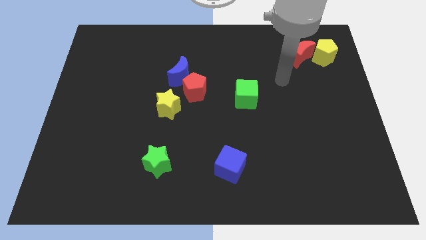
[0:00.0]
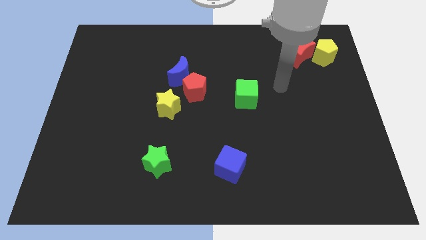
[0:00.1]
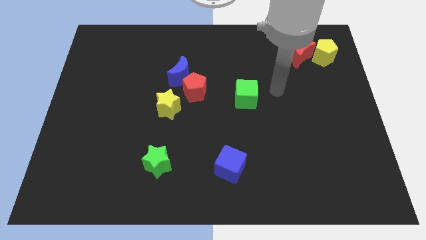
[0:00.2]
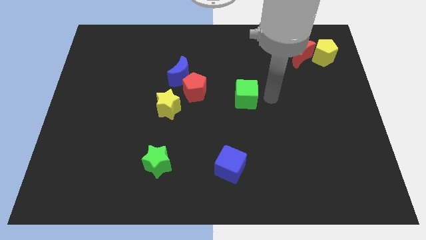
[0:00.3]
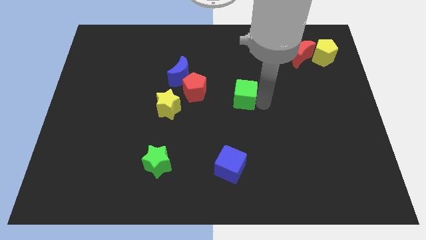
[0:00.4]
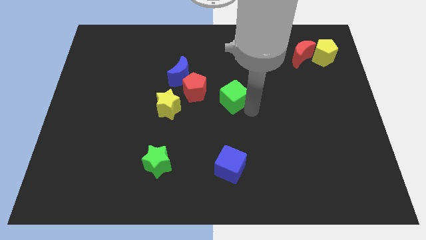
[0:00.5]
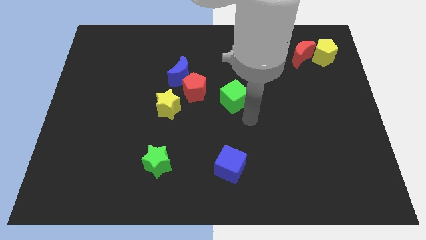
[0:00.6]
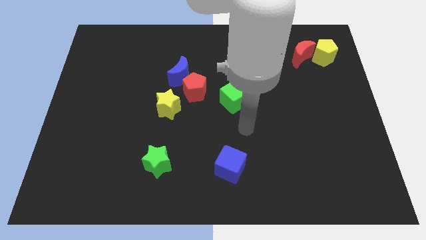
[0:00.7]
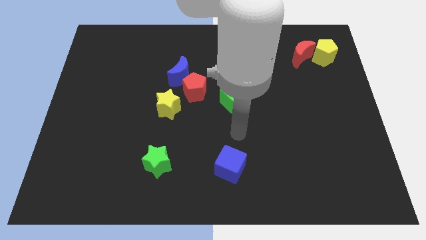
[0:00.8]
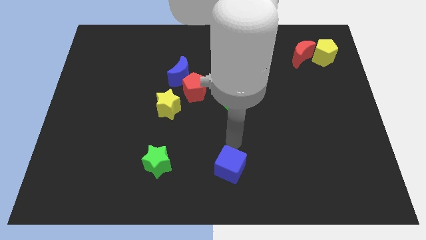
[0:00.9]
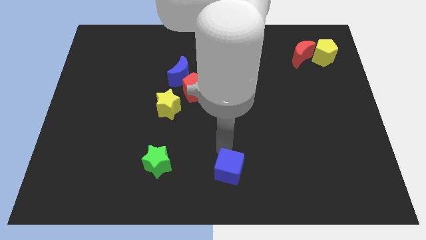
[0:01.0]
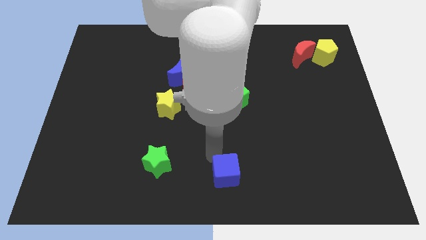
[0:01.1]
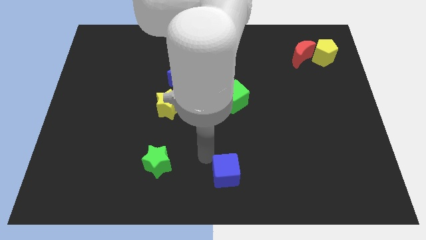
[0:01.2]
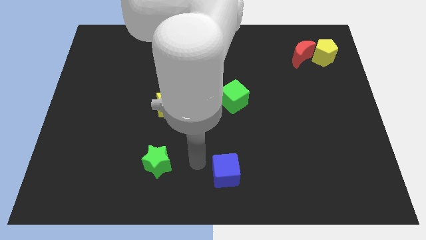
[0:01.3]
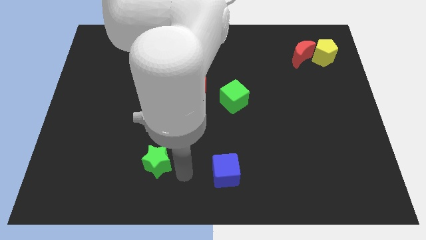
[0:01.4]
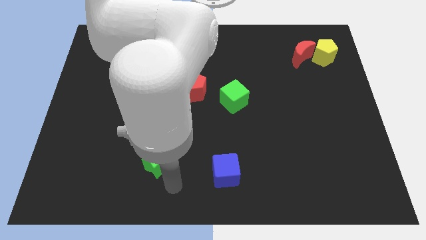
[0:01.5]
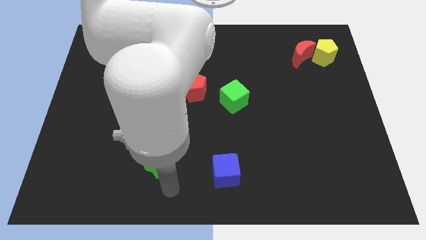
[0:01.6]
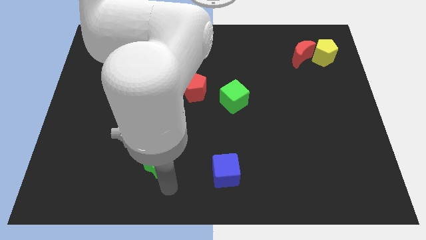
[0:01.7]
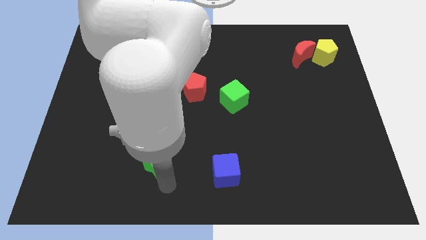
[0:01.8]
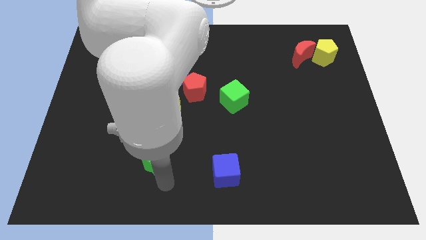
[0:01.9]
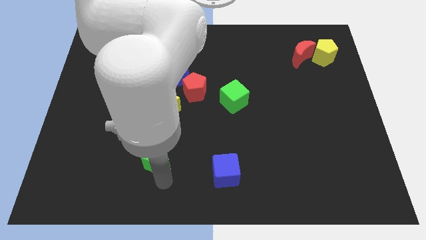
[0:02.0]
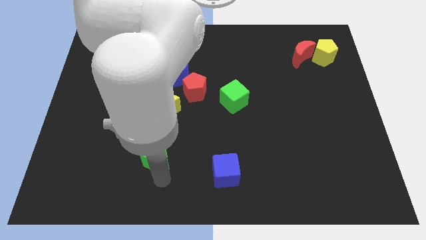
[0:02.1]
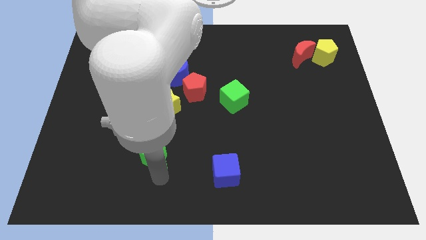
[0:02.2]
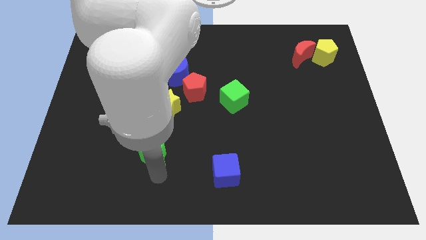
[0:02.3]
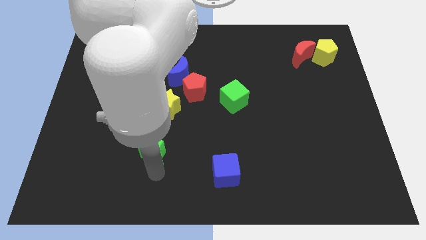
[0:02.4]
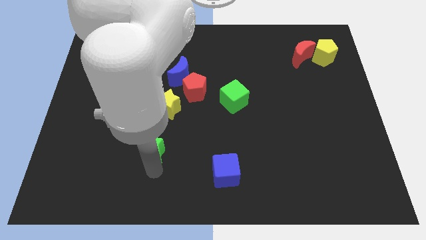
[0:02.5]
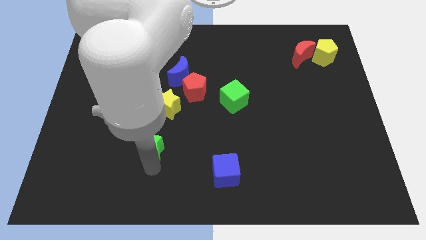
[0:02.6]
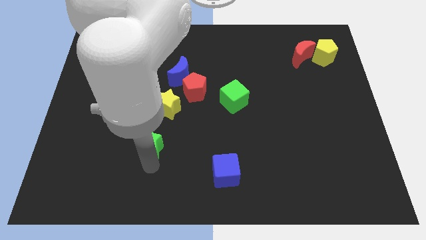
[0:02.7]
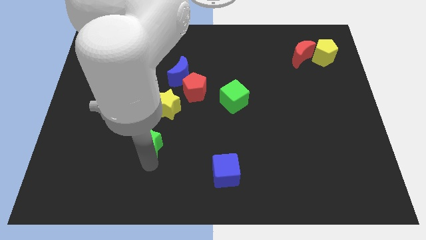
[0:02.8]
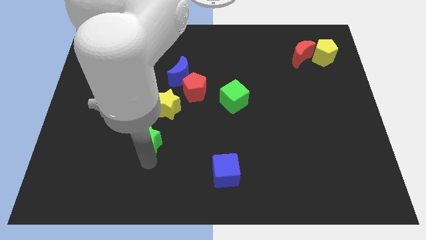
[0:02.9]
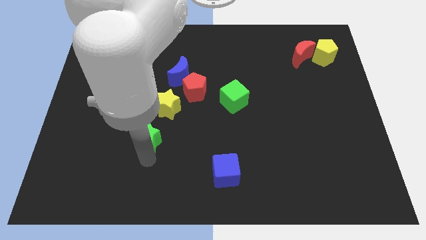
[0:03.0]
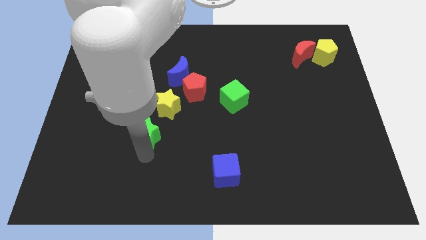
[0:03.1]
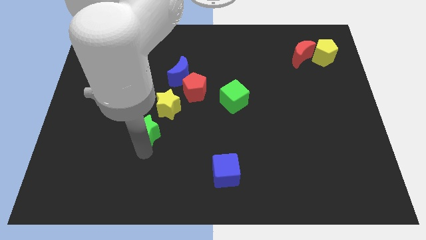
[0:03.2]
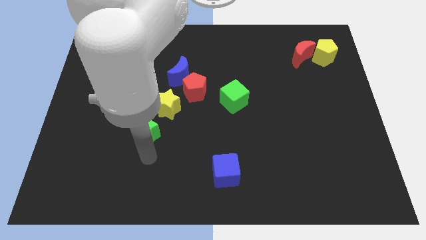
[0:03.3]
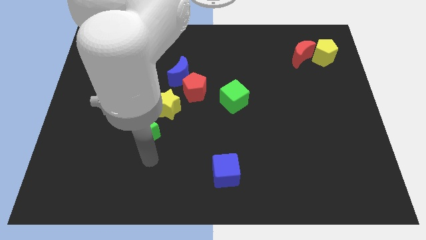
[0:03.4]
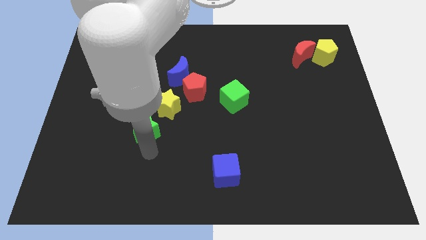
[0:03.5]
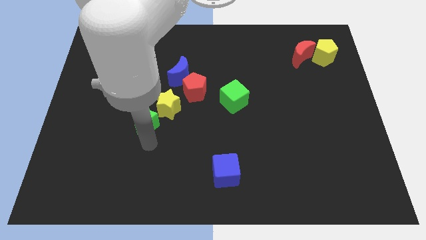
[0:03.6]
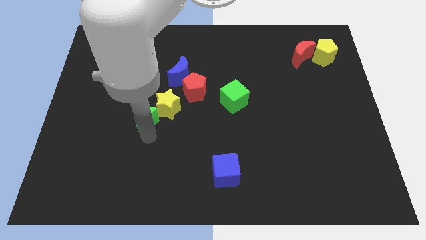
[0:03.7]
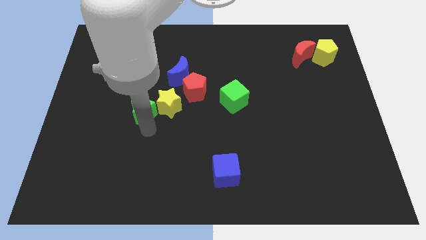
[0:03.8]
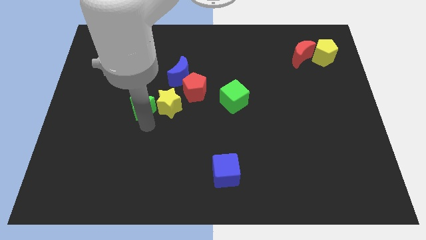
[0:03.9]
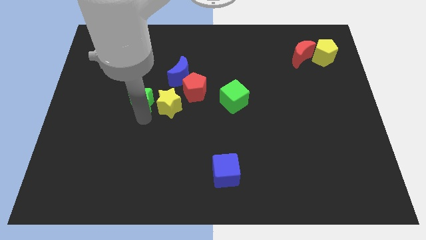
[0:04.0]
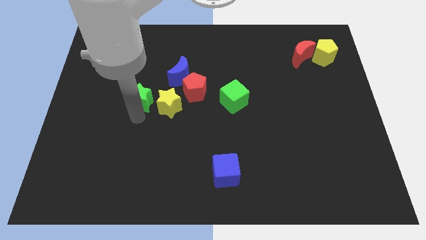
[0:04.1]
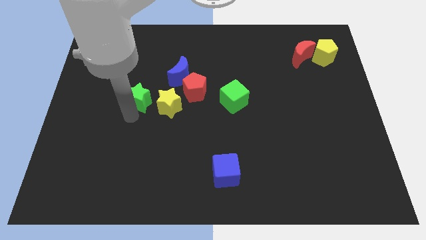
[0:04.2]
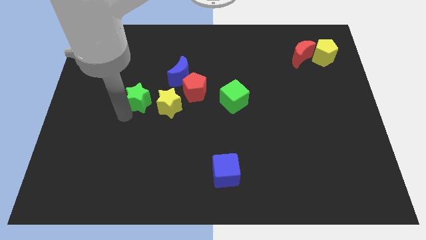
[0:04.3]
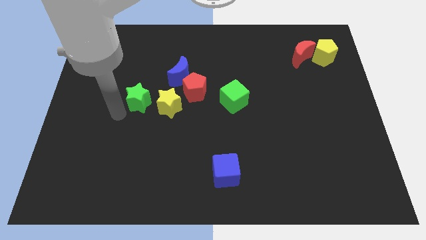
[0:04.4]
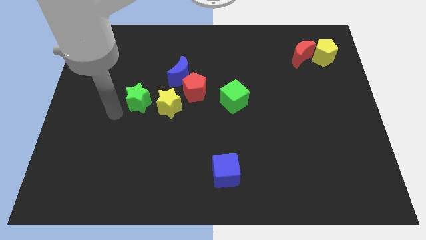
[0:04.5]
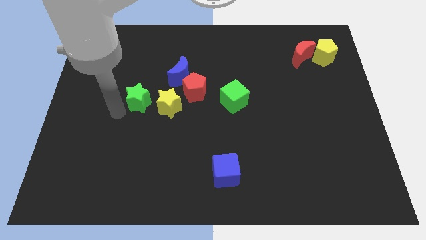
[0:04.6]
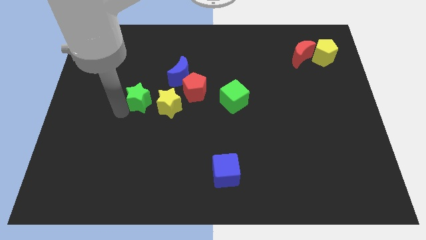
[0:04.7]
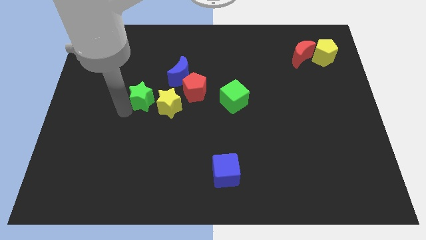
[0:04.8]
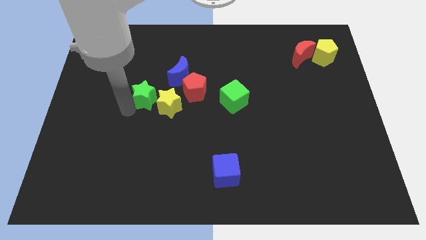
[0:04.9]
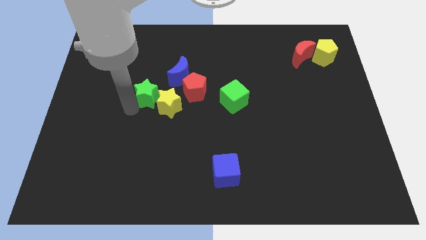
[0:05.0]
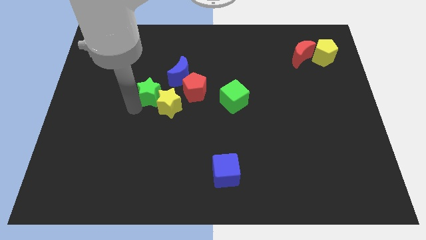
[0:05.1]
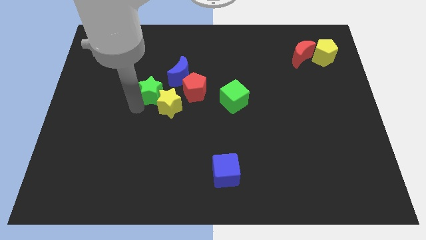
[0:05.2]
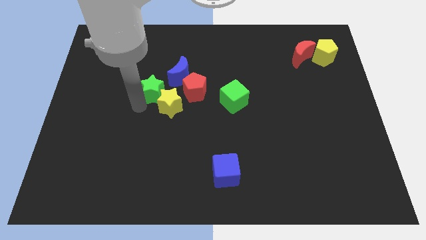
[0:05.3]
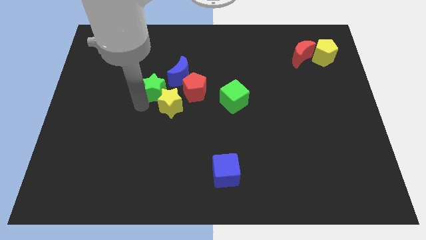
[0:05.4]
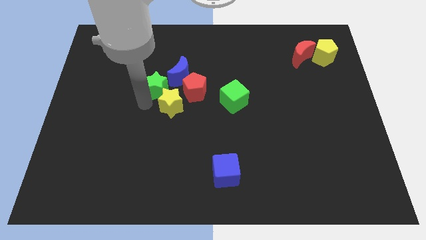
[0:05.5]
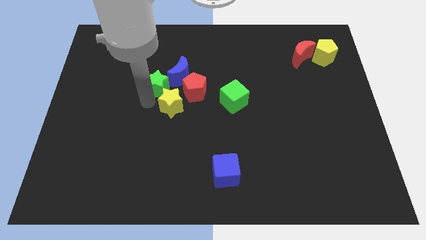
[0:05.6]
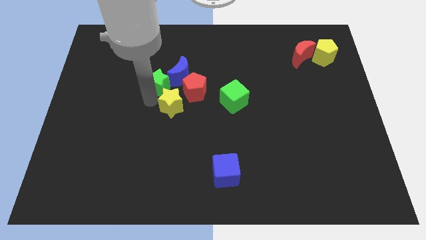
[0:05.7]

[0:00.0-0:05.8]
move the green star towards the blue moon

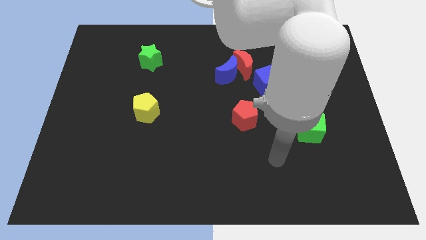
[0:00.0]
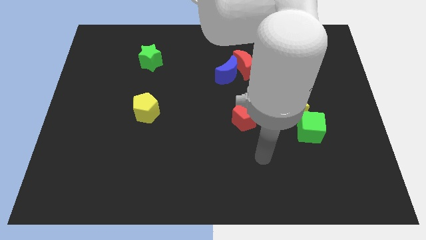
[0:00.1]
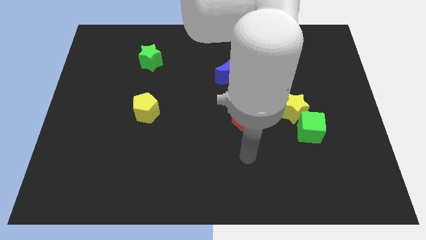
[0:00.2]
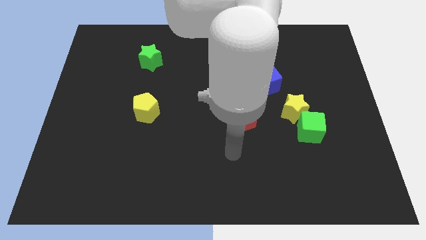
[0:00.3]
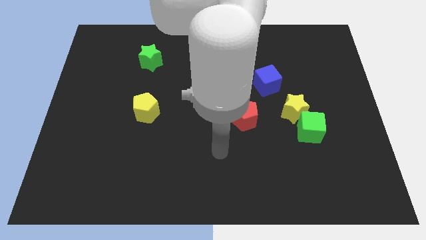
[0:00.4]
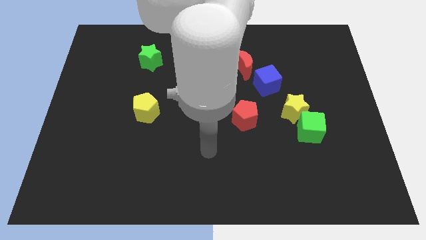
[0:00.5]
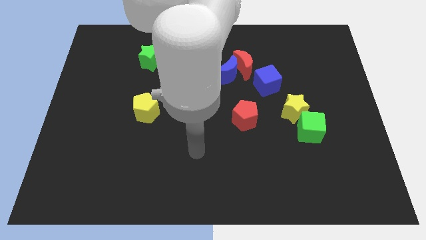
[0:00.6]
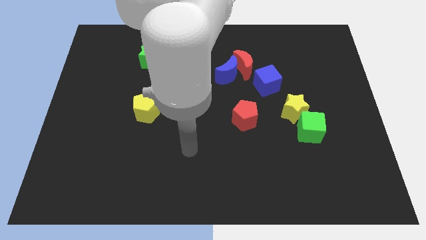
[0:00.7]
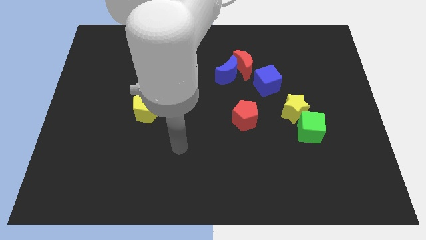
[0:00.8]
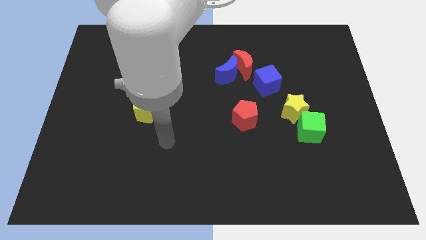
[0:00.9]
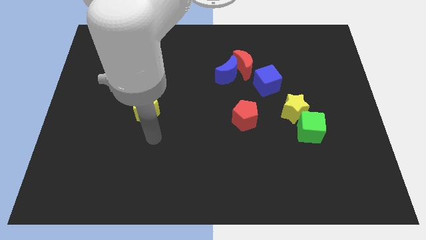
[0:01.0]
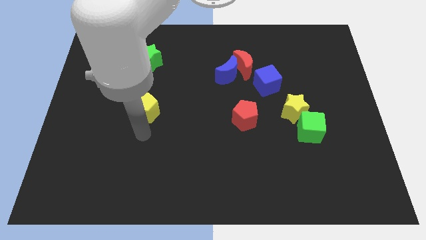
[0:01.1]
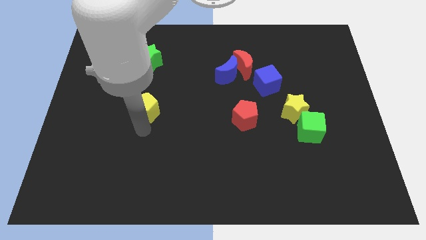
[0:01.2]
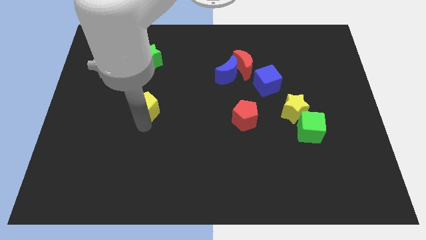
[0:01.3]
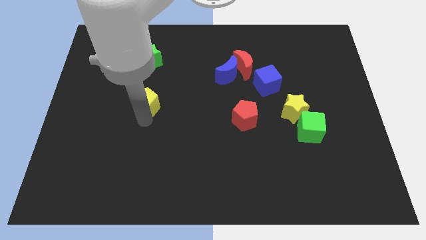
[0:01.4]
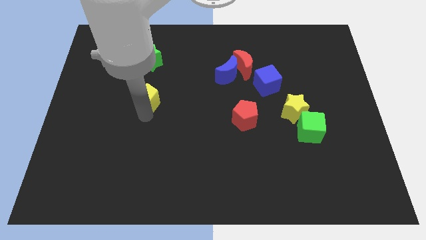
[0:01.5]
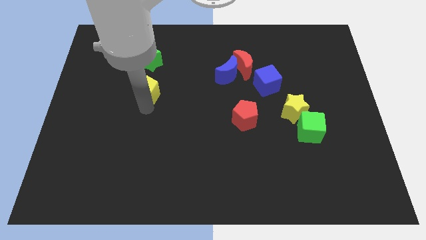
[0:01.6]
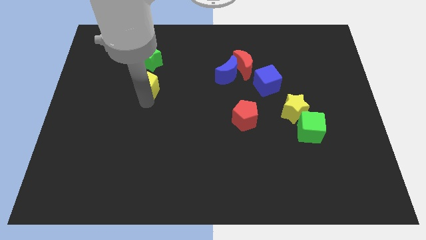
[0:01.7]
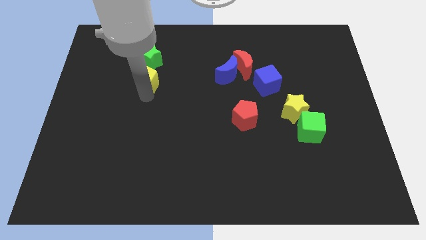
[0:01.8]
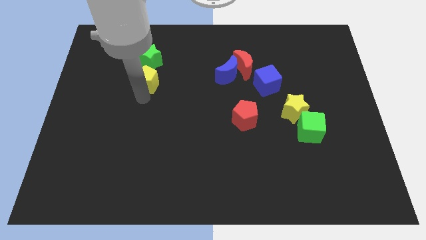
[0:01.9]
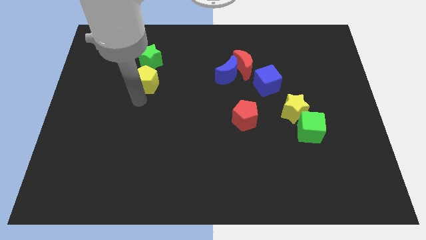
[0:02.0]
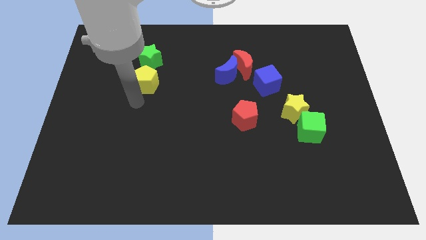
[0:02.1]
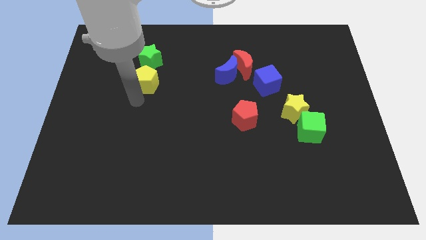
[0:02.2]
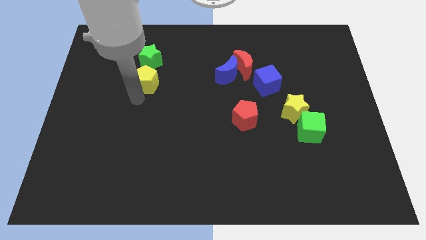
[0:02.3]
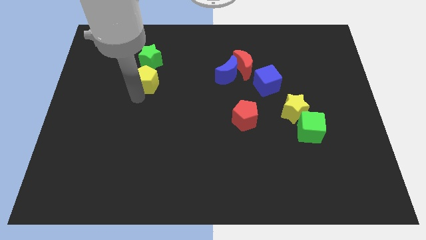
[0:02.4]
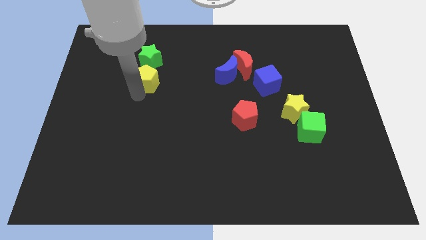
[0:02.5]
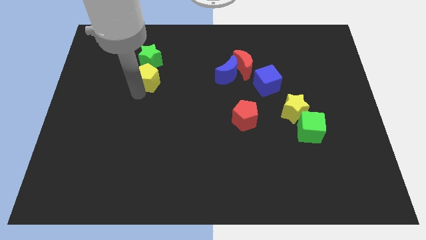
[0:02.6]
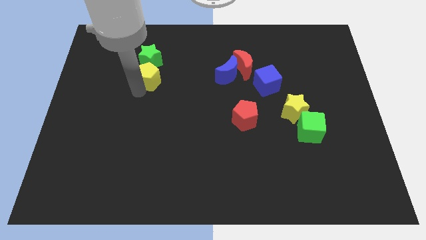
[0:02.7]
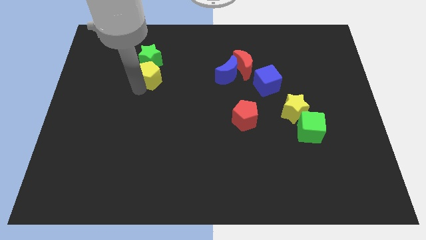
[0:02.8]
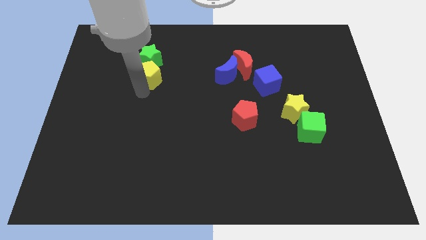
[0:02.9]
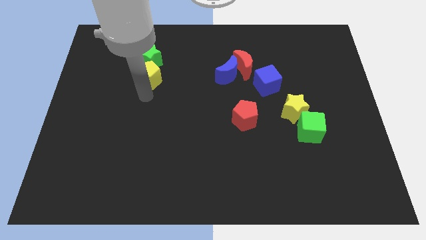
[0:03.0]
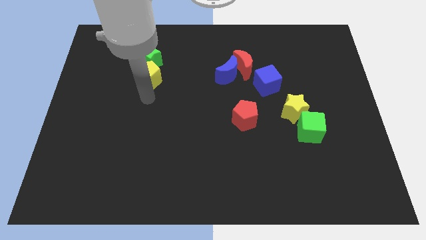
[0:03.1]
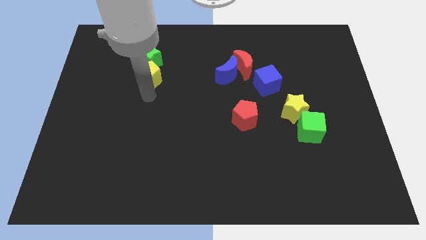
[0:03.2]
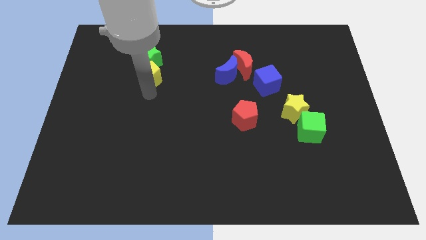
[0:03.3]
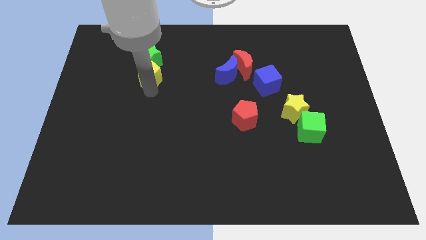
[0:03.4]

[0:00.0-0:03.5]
slide the yellow pentagon to the green star
